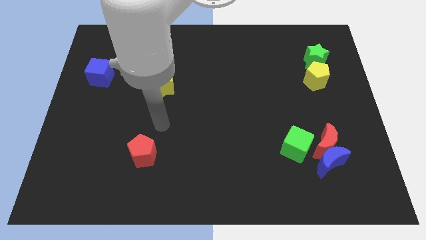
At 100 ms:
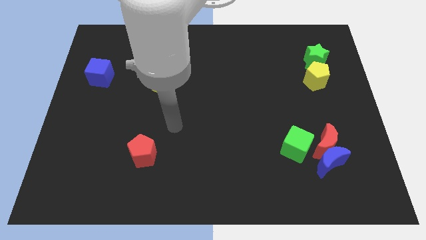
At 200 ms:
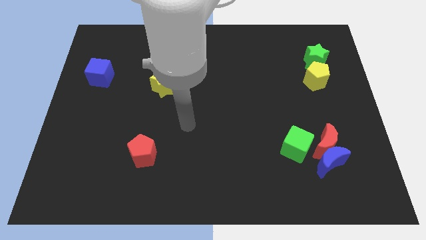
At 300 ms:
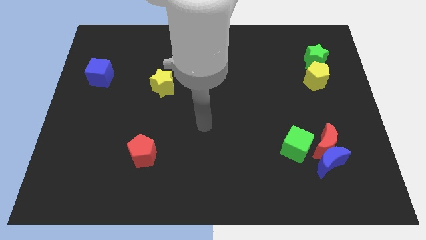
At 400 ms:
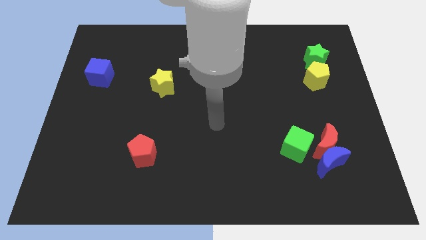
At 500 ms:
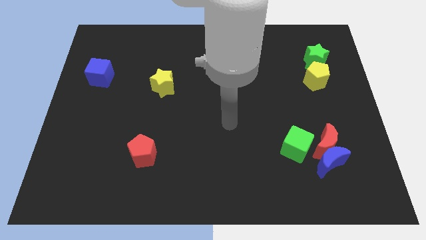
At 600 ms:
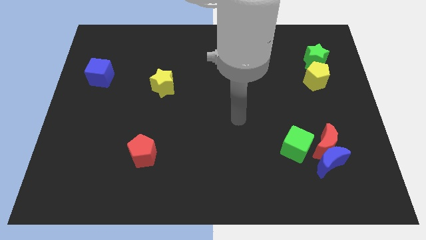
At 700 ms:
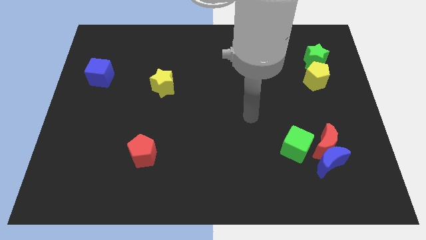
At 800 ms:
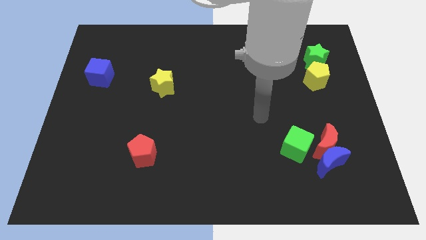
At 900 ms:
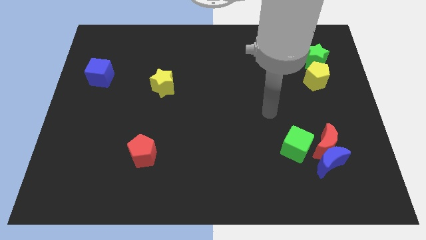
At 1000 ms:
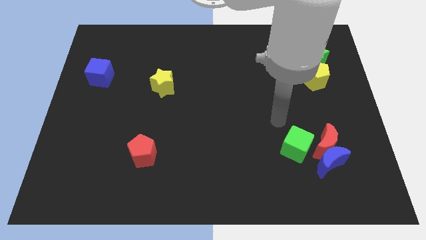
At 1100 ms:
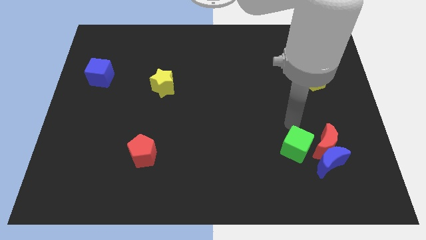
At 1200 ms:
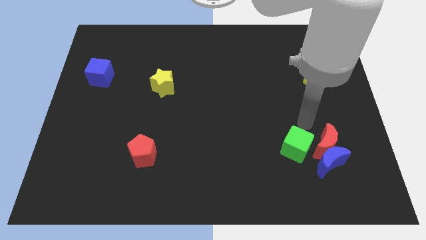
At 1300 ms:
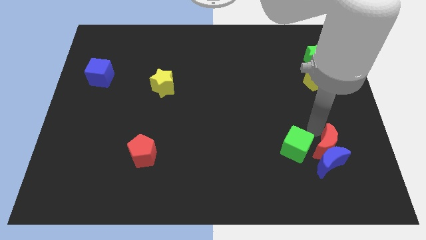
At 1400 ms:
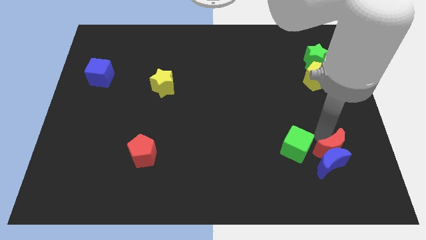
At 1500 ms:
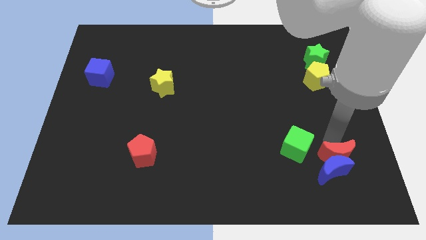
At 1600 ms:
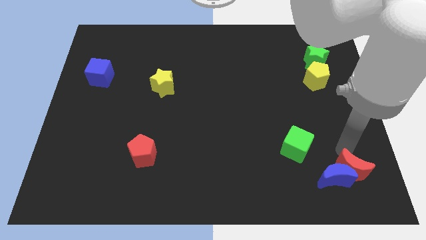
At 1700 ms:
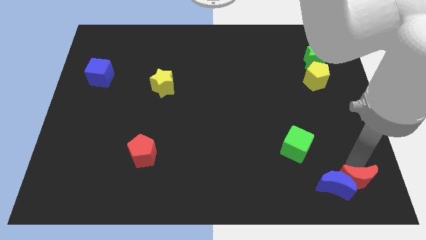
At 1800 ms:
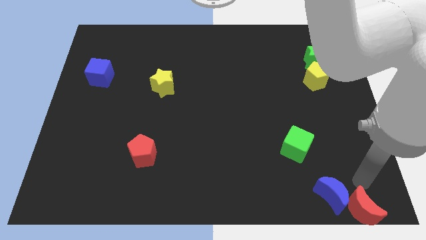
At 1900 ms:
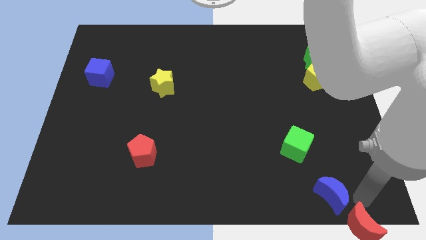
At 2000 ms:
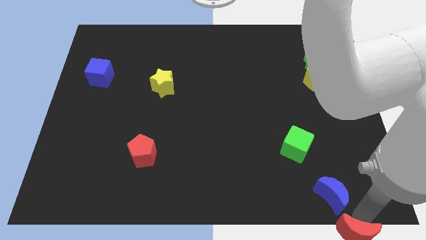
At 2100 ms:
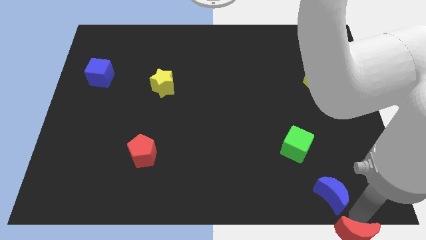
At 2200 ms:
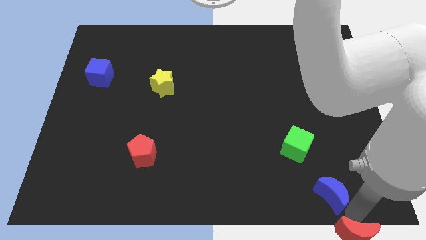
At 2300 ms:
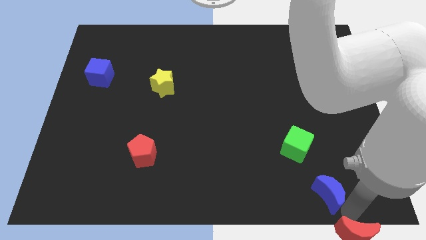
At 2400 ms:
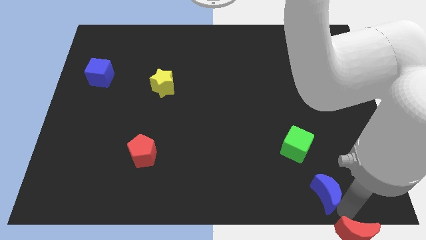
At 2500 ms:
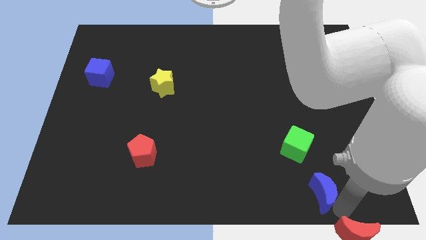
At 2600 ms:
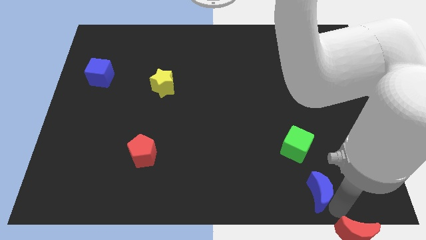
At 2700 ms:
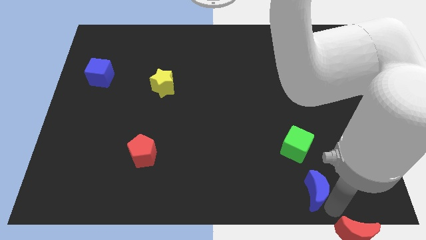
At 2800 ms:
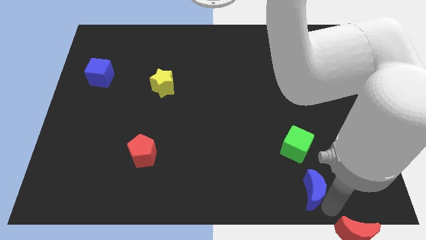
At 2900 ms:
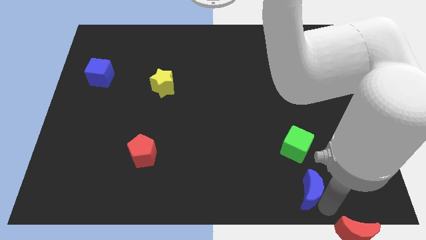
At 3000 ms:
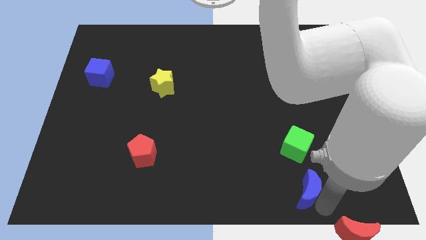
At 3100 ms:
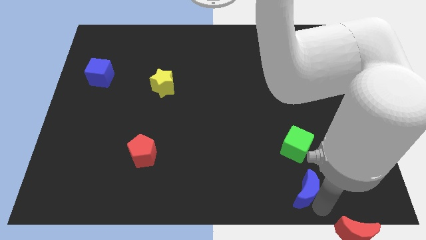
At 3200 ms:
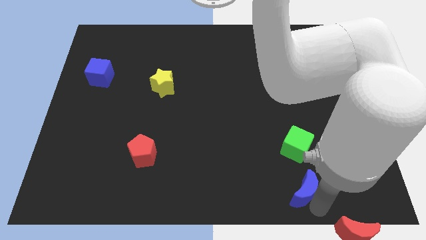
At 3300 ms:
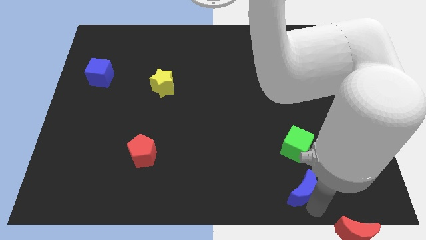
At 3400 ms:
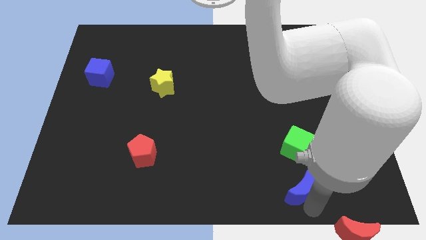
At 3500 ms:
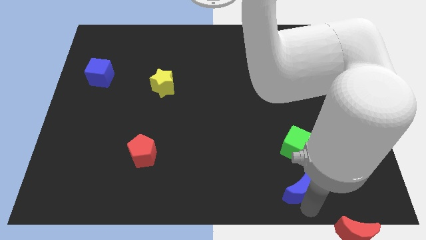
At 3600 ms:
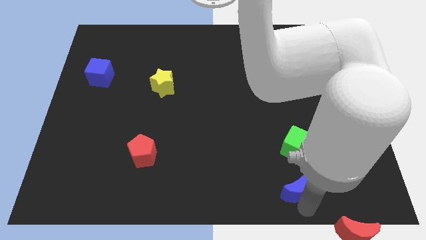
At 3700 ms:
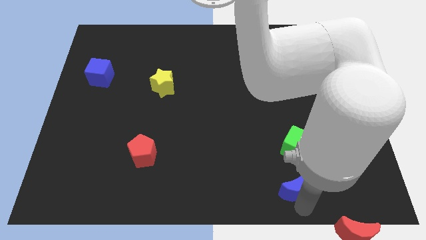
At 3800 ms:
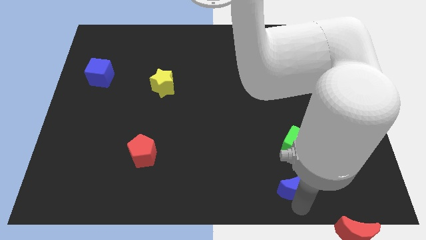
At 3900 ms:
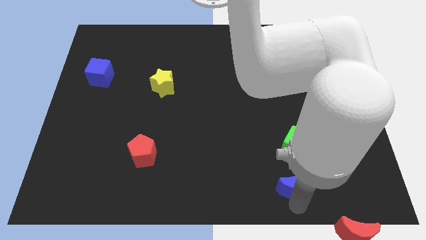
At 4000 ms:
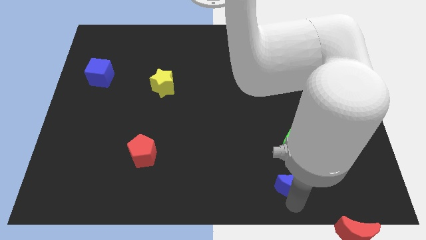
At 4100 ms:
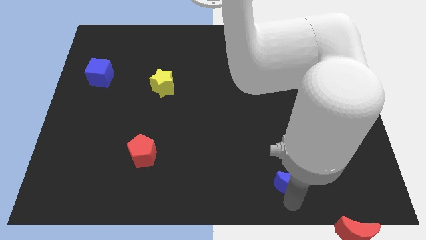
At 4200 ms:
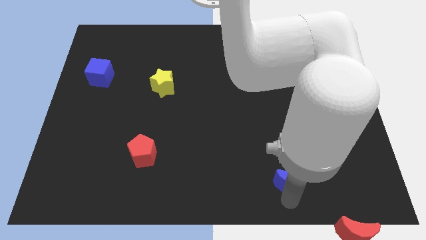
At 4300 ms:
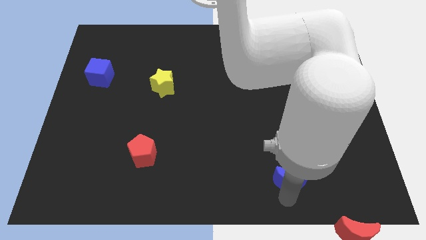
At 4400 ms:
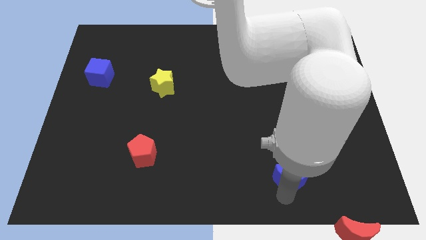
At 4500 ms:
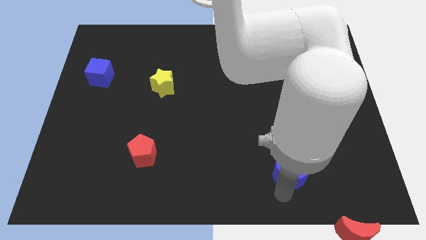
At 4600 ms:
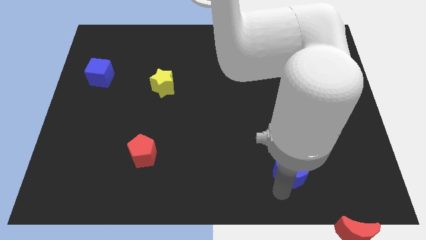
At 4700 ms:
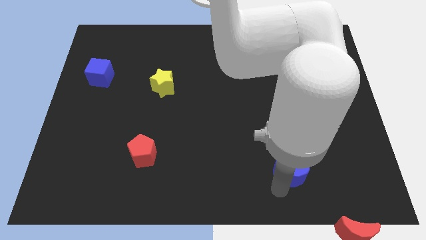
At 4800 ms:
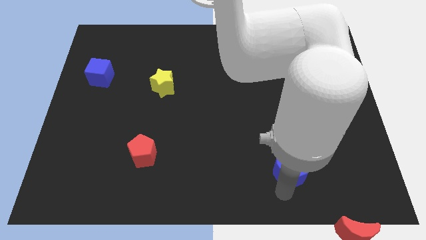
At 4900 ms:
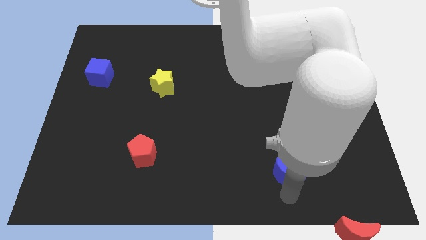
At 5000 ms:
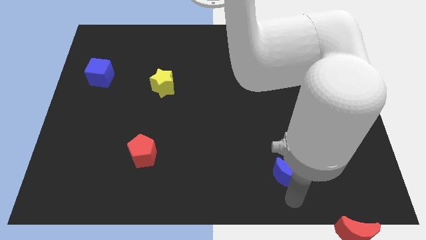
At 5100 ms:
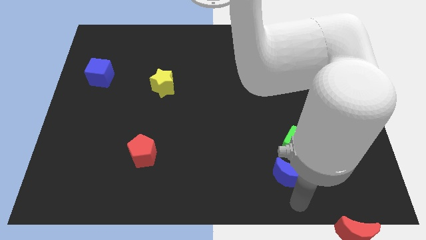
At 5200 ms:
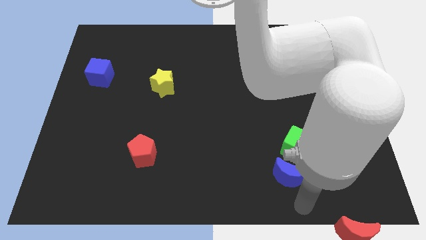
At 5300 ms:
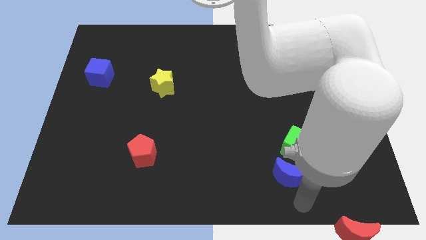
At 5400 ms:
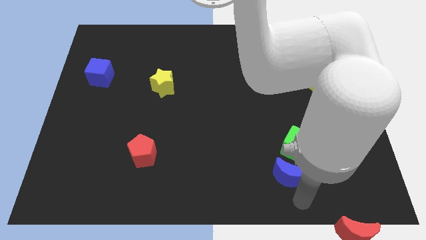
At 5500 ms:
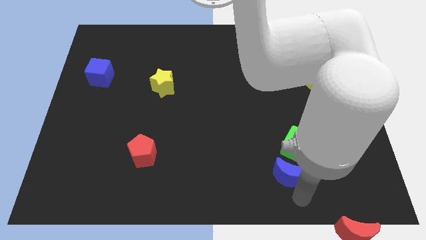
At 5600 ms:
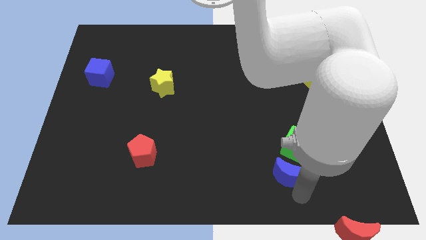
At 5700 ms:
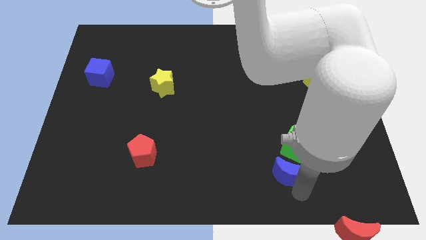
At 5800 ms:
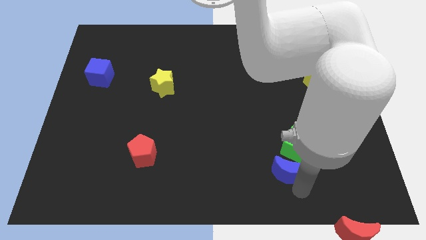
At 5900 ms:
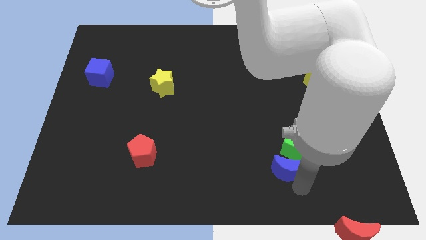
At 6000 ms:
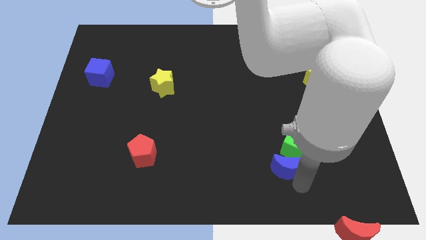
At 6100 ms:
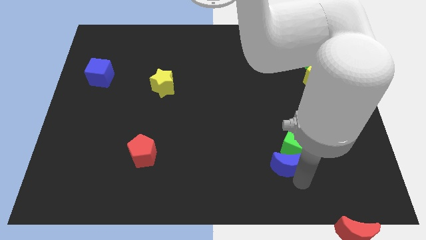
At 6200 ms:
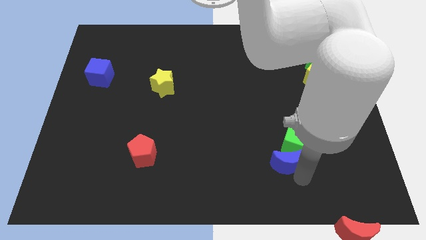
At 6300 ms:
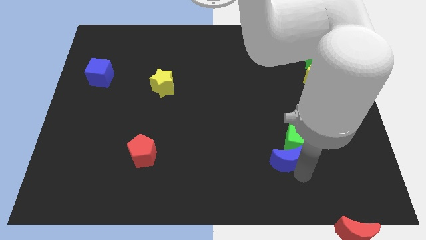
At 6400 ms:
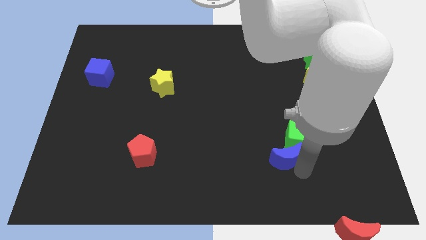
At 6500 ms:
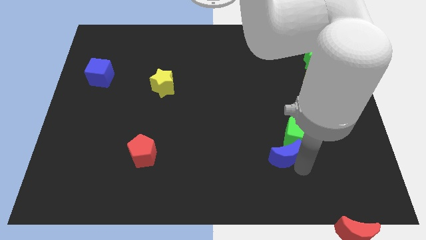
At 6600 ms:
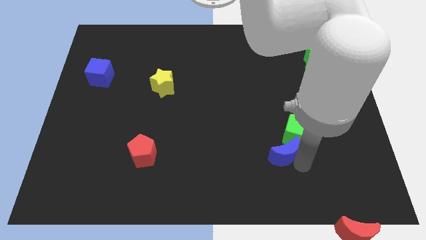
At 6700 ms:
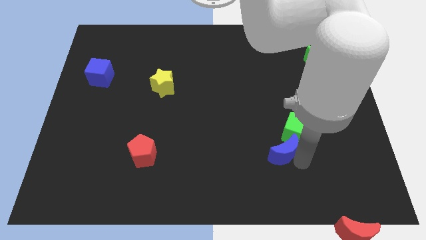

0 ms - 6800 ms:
slightly slide the blue moon up and left

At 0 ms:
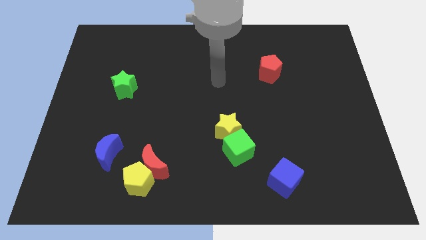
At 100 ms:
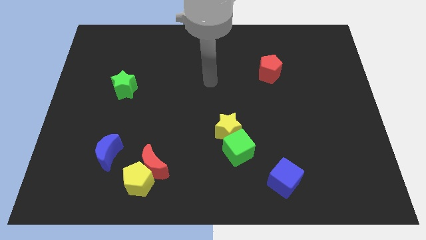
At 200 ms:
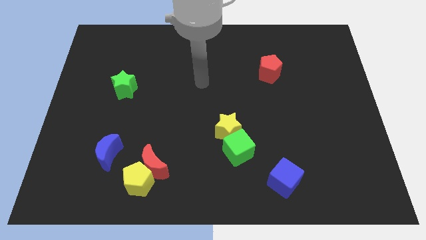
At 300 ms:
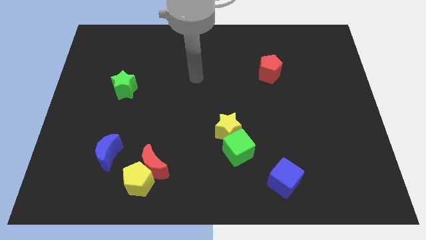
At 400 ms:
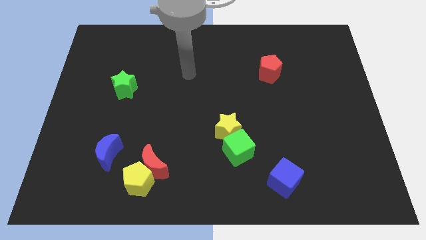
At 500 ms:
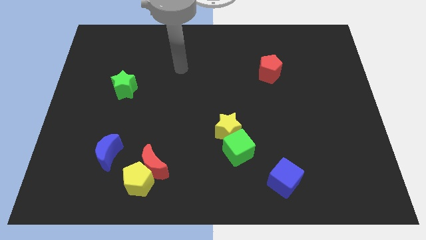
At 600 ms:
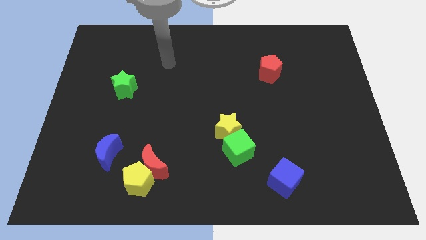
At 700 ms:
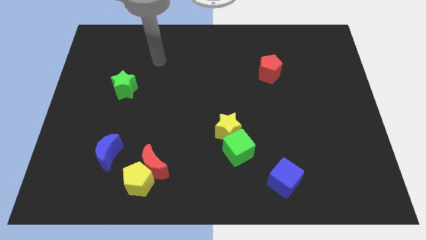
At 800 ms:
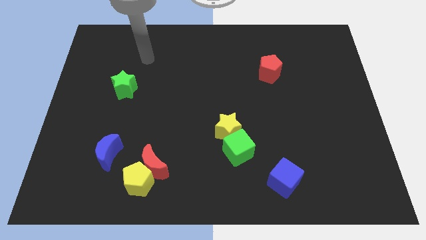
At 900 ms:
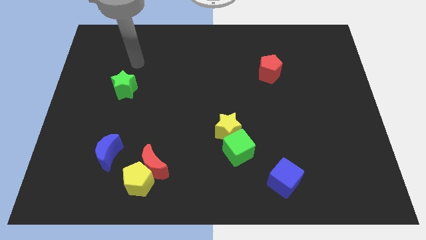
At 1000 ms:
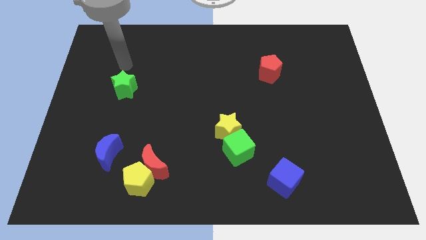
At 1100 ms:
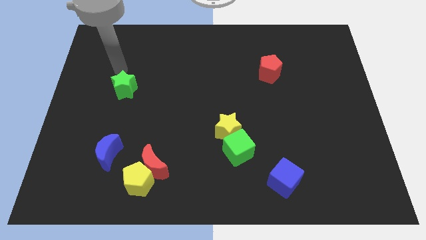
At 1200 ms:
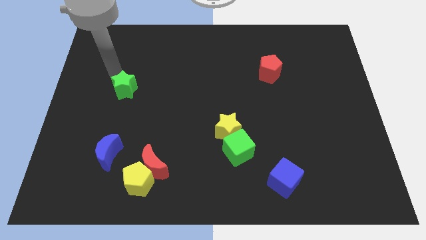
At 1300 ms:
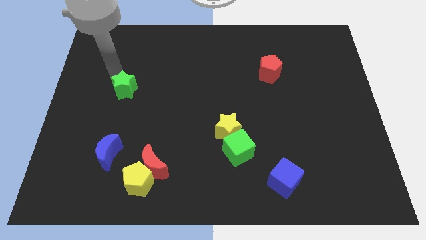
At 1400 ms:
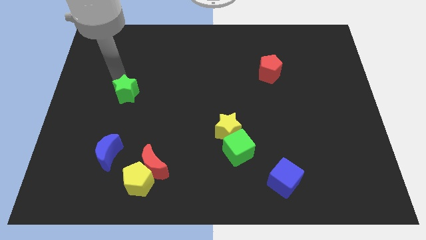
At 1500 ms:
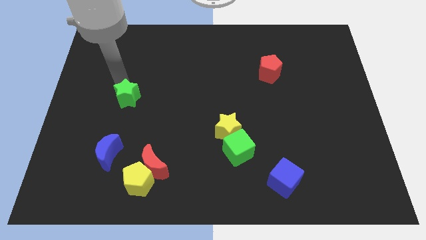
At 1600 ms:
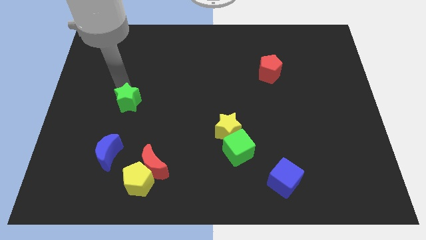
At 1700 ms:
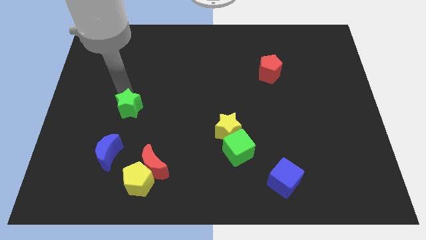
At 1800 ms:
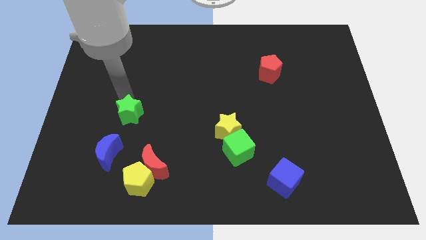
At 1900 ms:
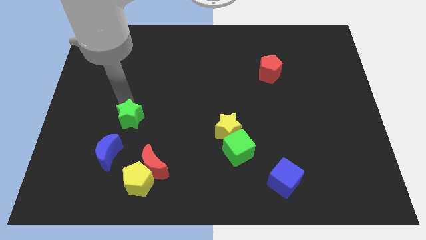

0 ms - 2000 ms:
push the green star down and to the right diagonally a little bit
